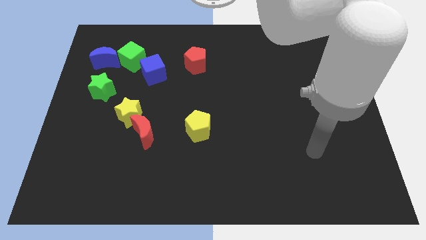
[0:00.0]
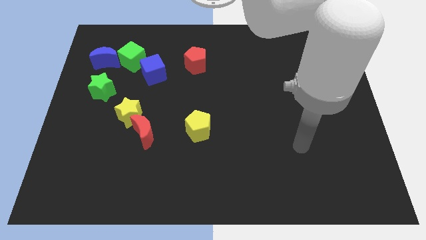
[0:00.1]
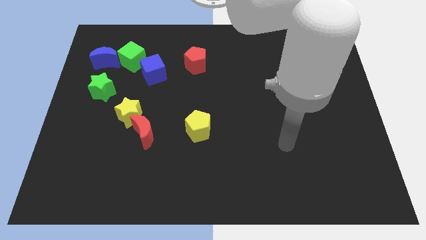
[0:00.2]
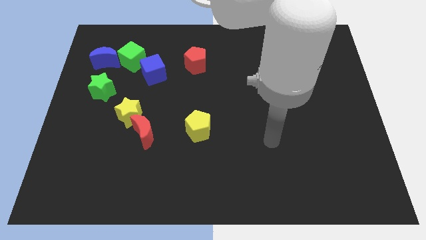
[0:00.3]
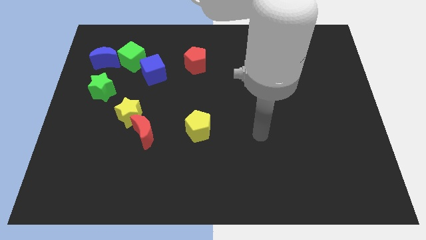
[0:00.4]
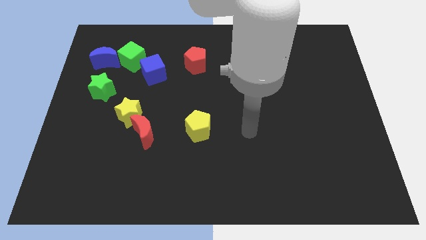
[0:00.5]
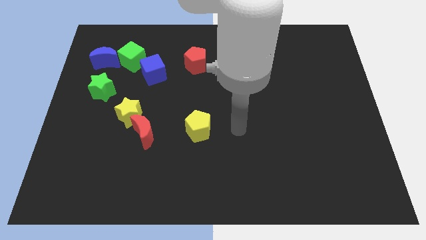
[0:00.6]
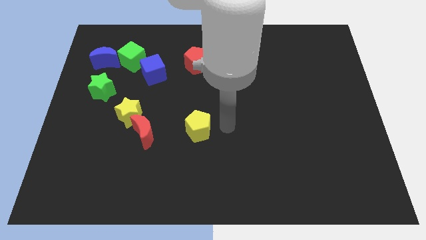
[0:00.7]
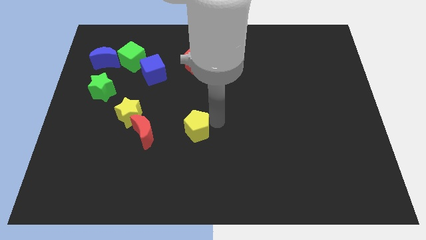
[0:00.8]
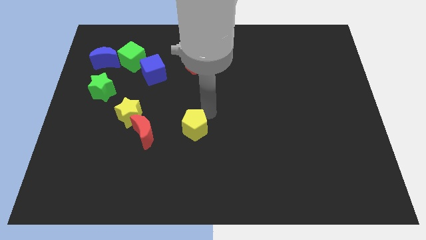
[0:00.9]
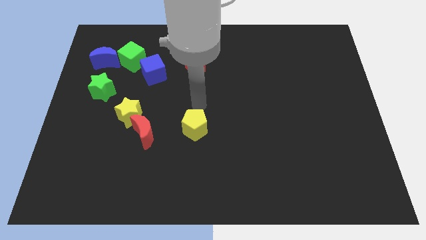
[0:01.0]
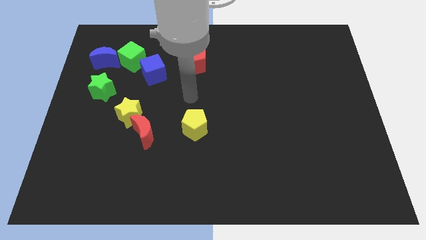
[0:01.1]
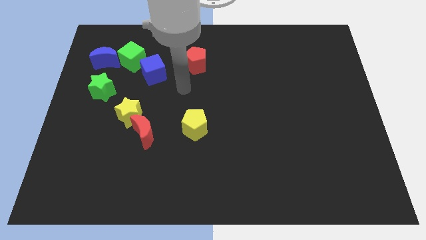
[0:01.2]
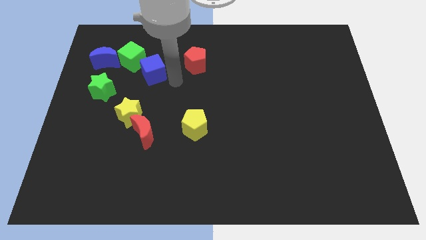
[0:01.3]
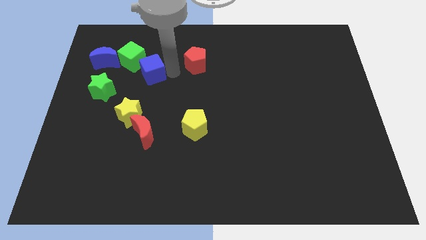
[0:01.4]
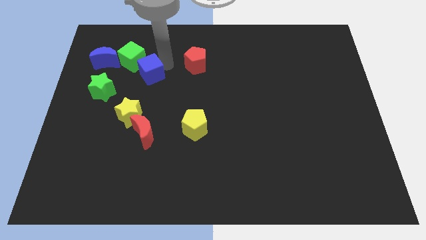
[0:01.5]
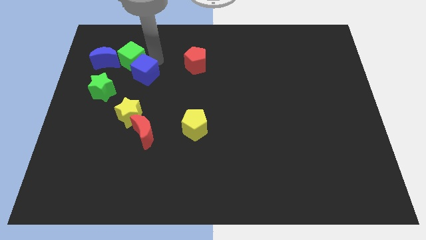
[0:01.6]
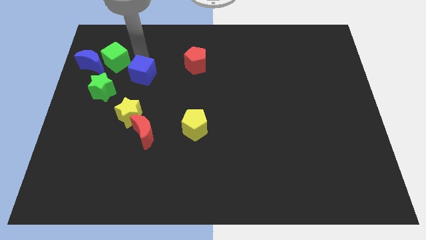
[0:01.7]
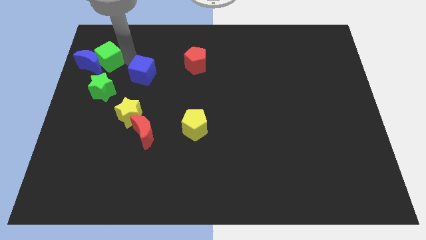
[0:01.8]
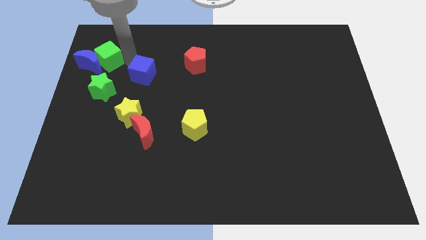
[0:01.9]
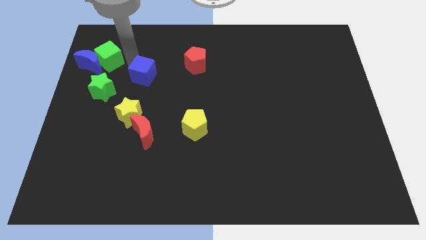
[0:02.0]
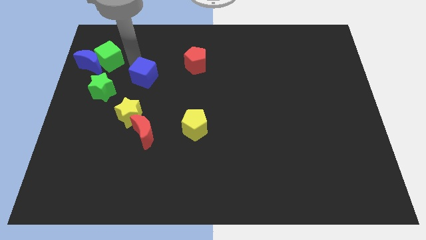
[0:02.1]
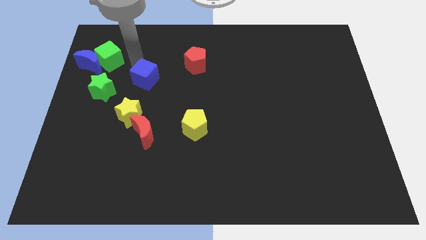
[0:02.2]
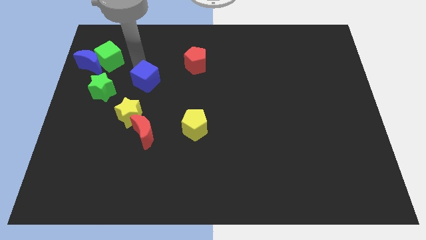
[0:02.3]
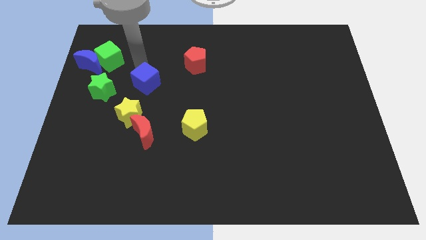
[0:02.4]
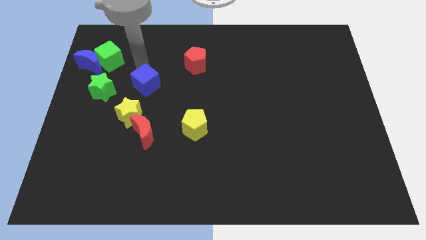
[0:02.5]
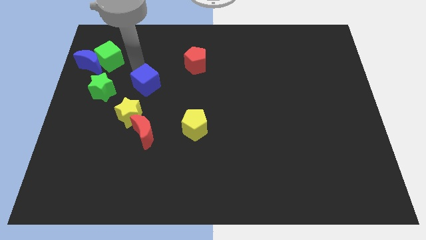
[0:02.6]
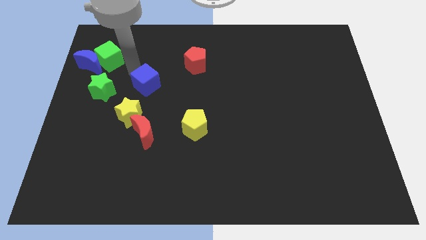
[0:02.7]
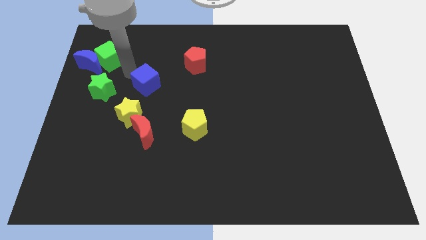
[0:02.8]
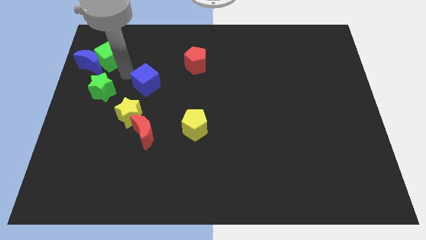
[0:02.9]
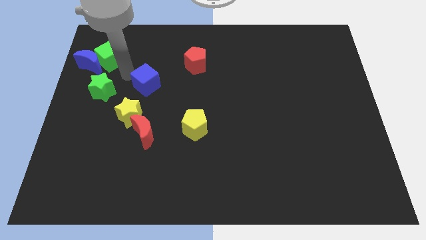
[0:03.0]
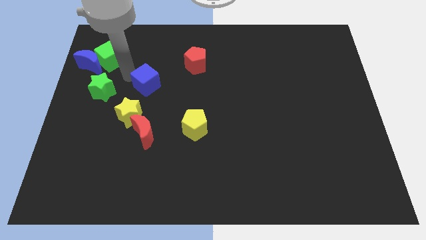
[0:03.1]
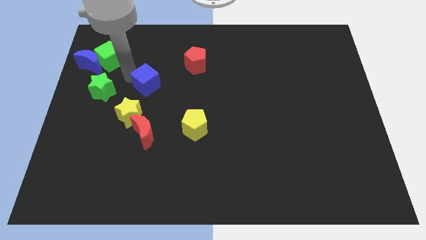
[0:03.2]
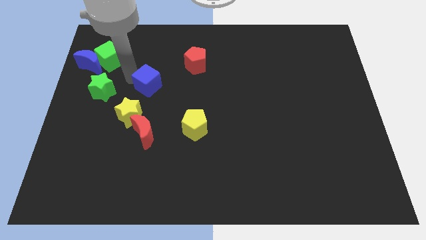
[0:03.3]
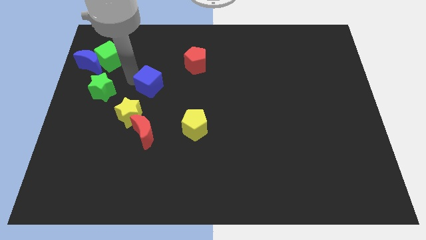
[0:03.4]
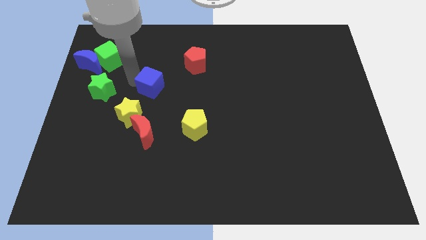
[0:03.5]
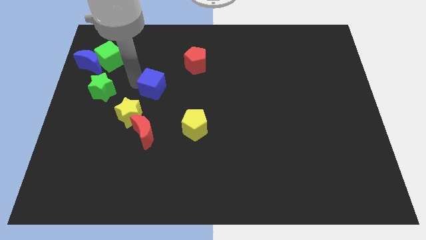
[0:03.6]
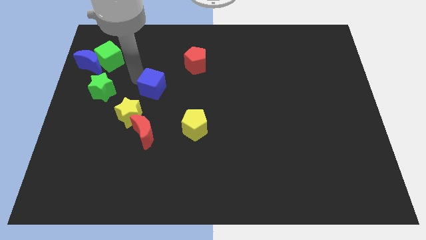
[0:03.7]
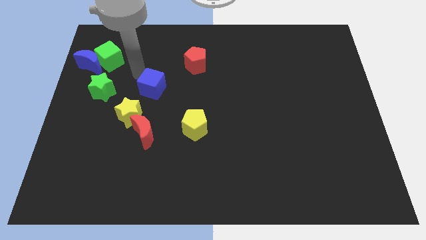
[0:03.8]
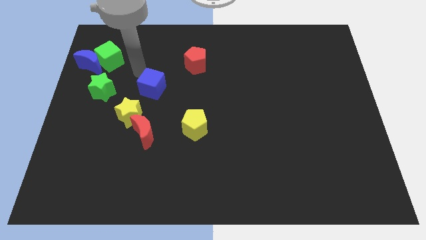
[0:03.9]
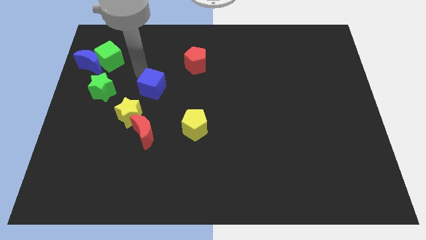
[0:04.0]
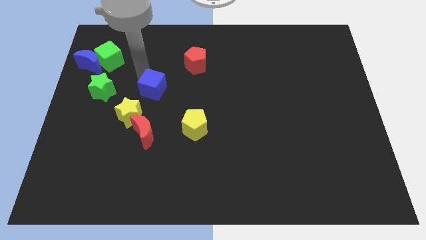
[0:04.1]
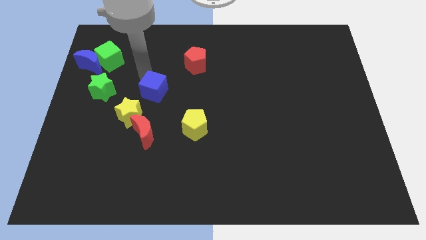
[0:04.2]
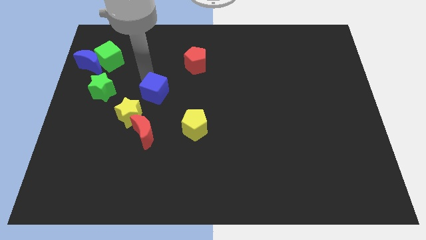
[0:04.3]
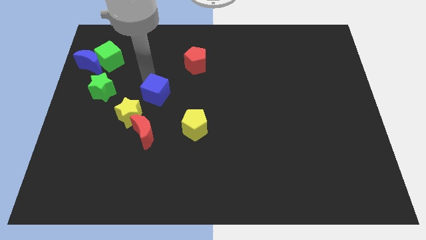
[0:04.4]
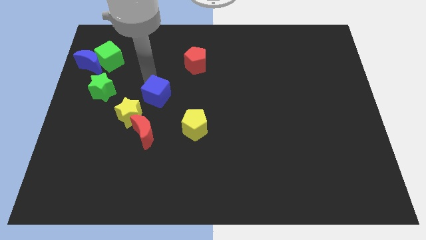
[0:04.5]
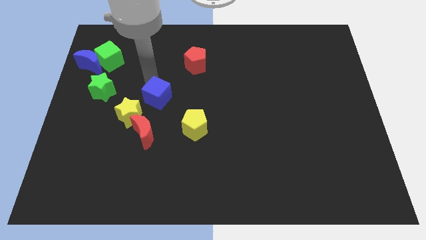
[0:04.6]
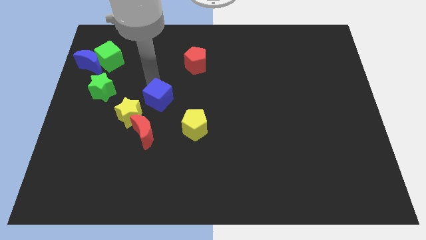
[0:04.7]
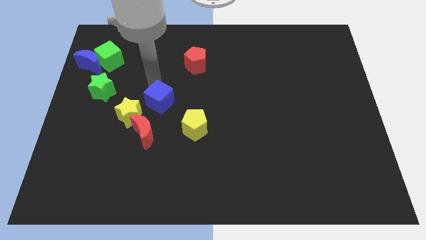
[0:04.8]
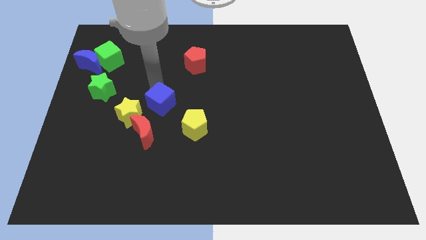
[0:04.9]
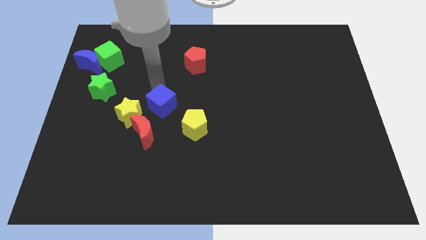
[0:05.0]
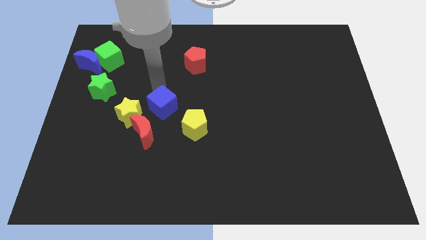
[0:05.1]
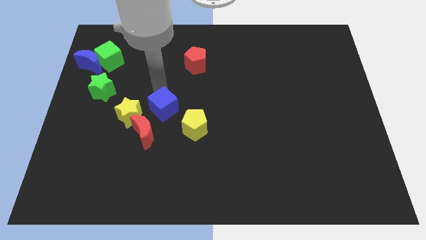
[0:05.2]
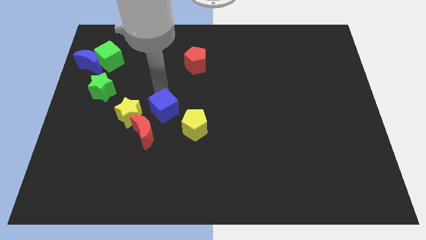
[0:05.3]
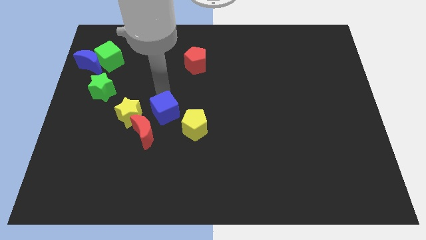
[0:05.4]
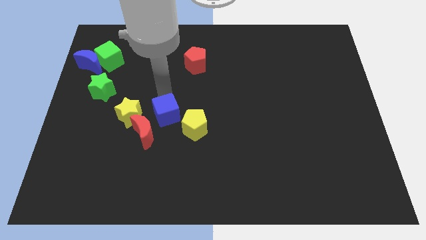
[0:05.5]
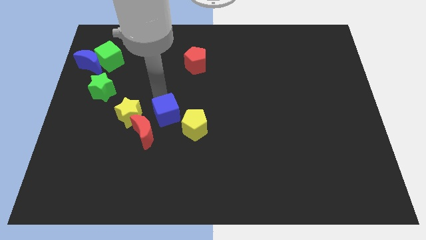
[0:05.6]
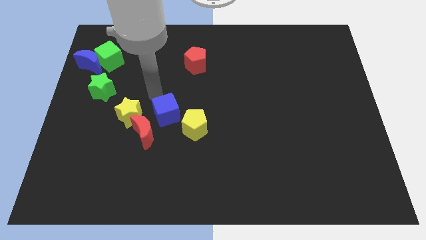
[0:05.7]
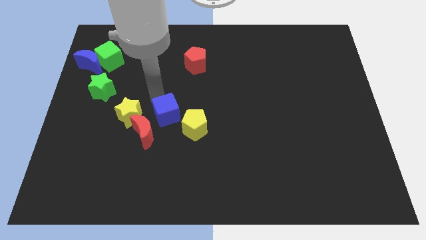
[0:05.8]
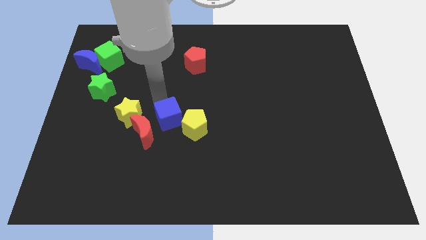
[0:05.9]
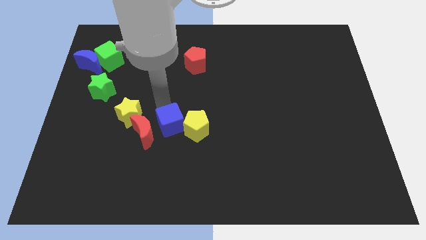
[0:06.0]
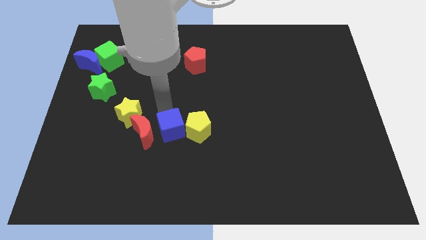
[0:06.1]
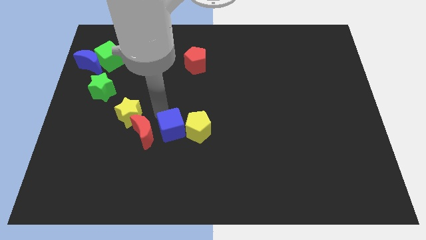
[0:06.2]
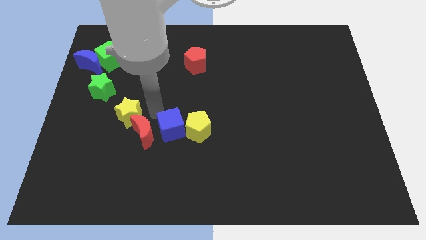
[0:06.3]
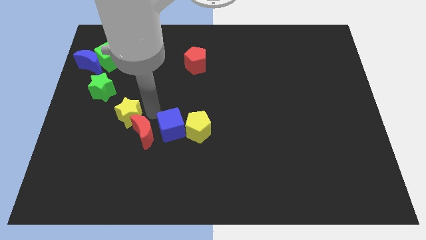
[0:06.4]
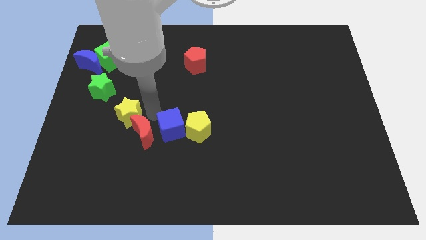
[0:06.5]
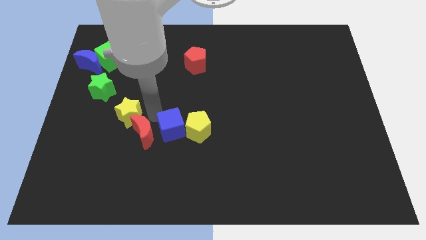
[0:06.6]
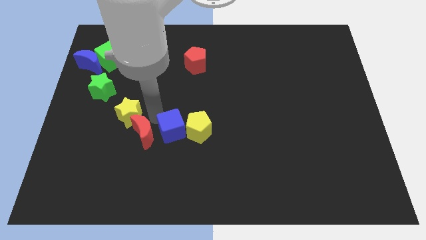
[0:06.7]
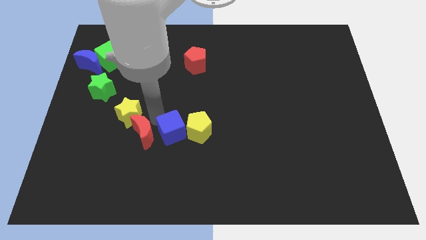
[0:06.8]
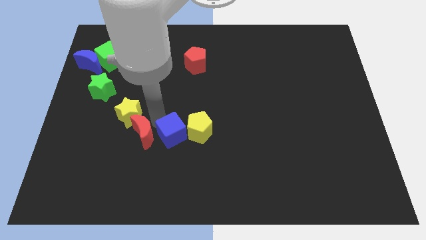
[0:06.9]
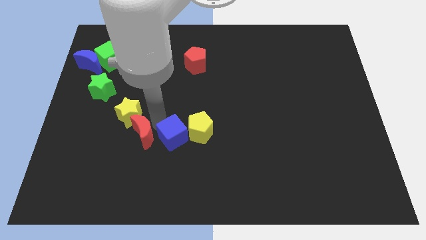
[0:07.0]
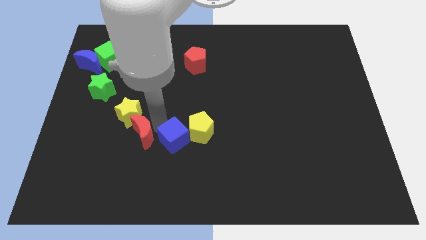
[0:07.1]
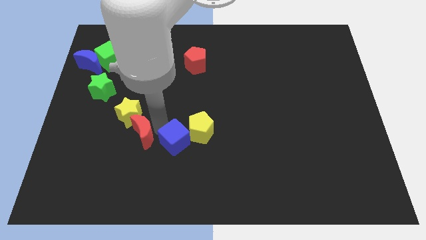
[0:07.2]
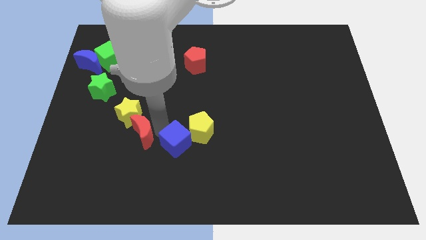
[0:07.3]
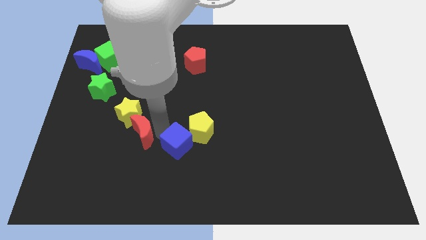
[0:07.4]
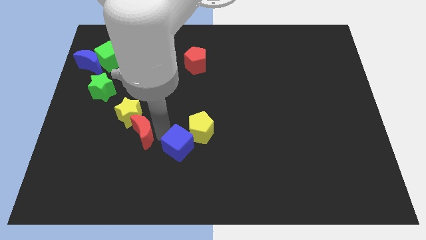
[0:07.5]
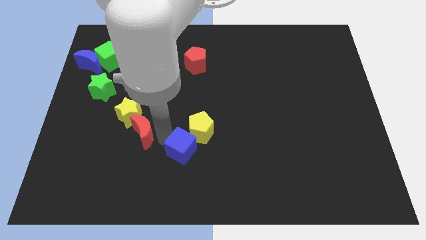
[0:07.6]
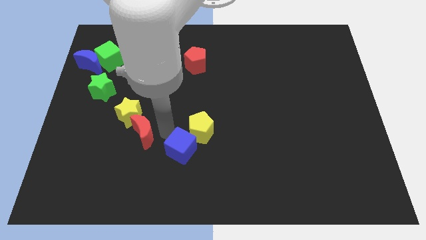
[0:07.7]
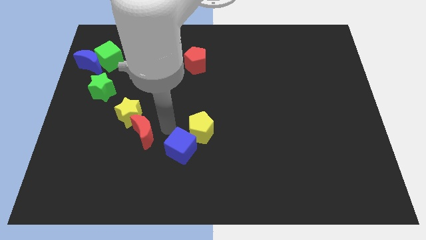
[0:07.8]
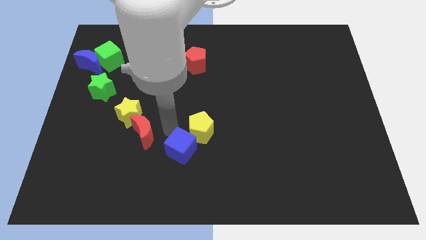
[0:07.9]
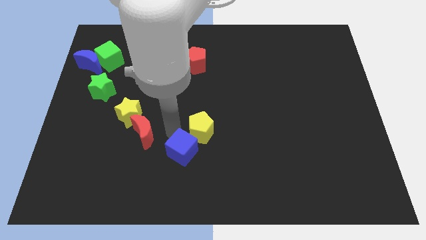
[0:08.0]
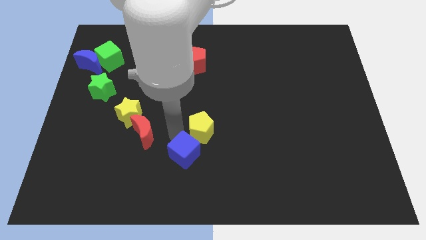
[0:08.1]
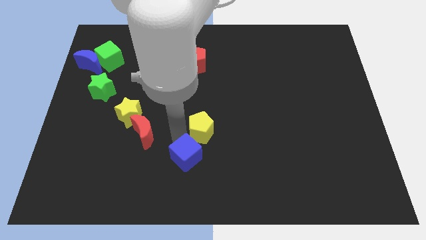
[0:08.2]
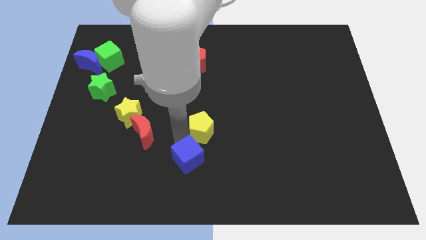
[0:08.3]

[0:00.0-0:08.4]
move the blue cube to the bottom side
